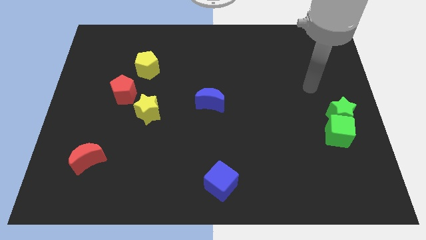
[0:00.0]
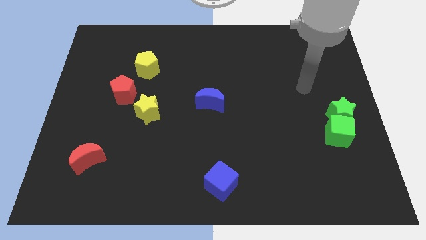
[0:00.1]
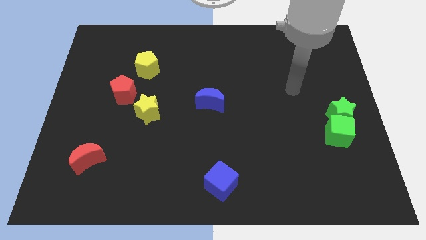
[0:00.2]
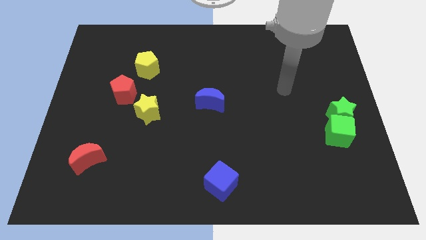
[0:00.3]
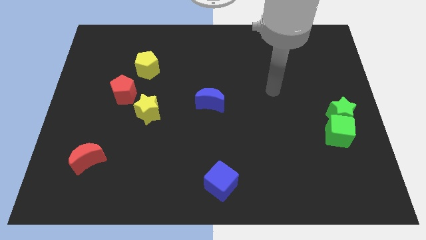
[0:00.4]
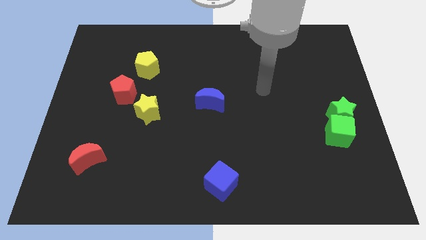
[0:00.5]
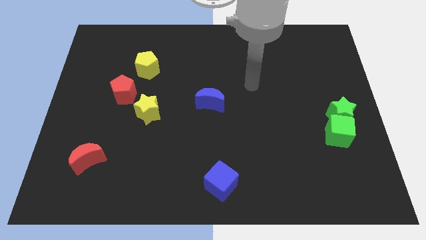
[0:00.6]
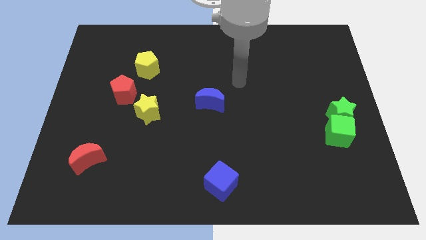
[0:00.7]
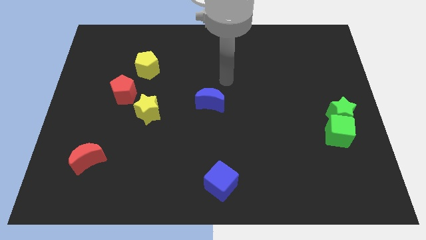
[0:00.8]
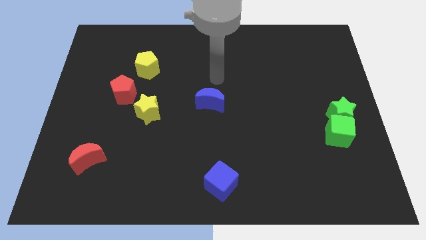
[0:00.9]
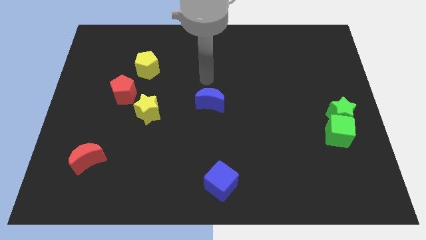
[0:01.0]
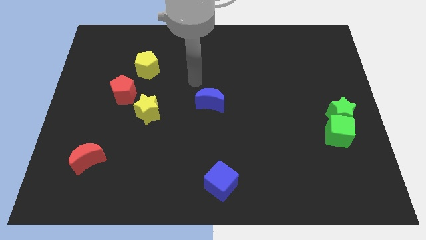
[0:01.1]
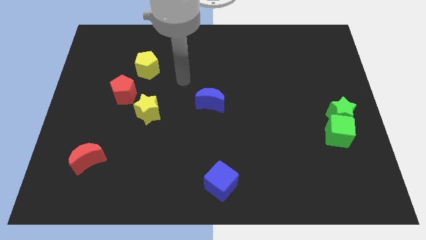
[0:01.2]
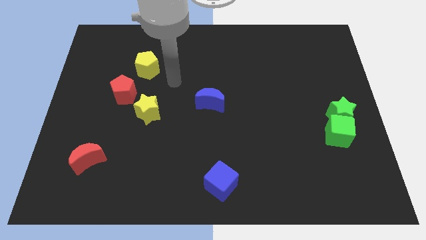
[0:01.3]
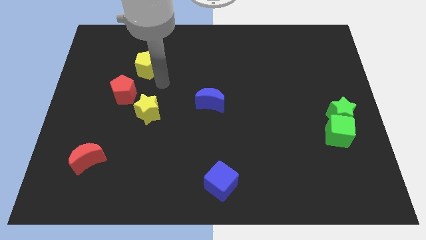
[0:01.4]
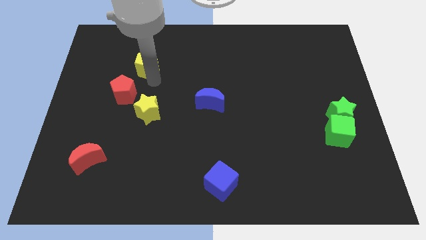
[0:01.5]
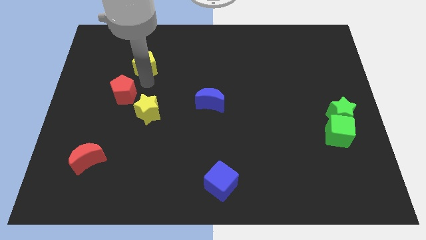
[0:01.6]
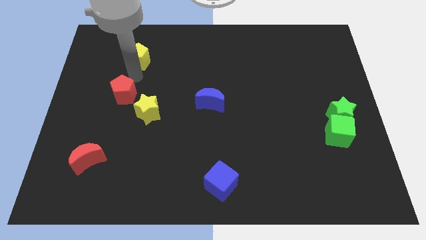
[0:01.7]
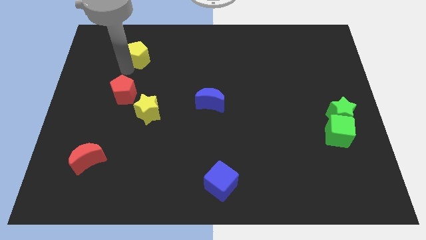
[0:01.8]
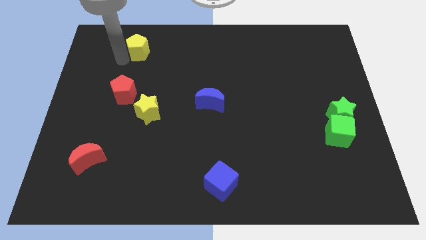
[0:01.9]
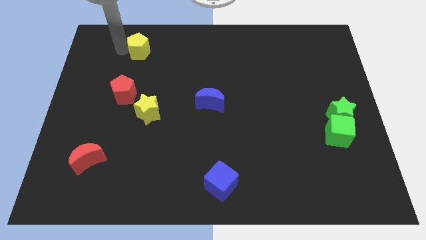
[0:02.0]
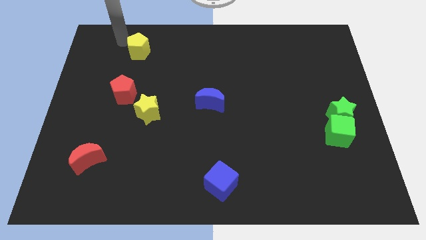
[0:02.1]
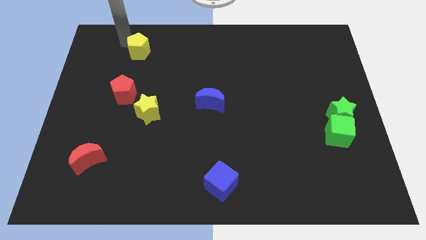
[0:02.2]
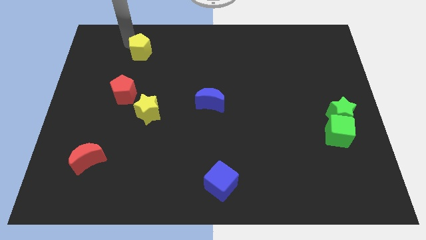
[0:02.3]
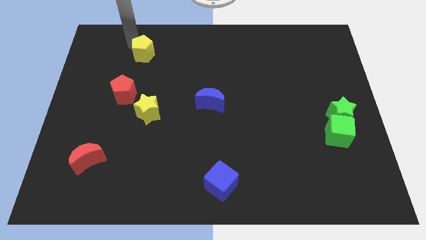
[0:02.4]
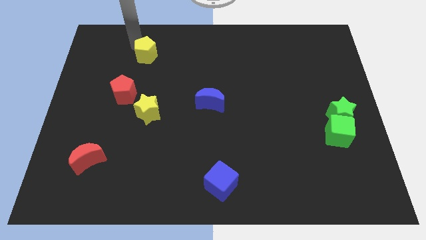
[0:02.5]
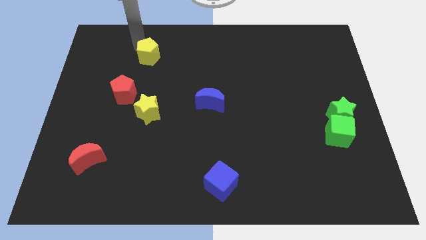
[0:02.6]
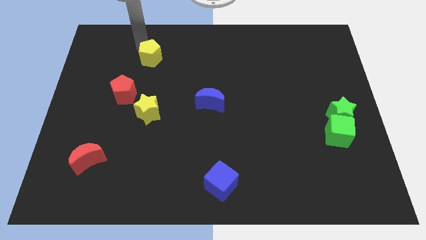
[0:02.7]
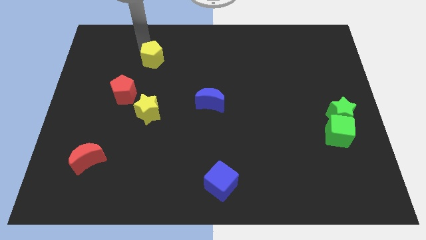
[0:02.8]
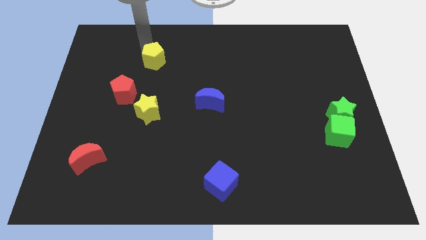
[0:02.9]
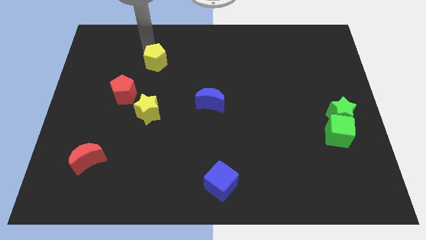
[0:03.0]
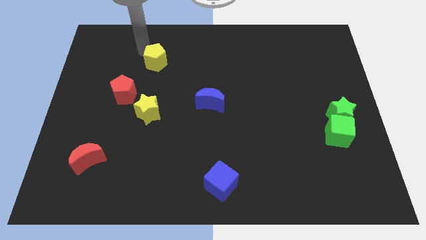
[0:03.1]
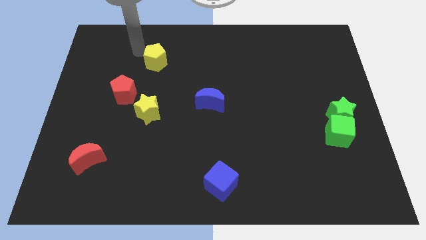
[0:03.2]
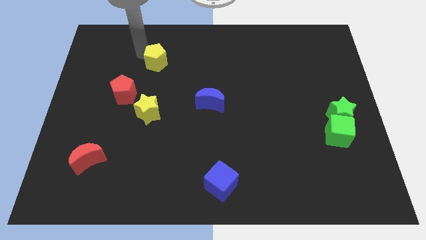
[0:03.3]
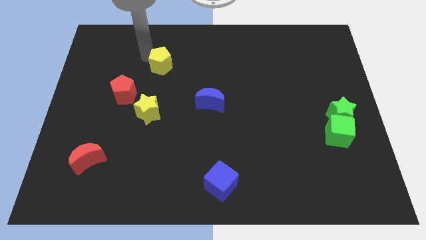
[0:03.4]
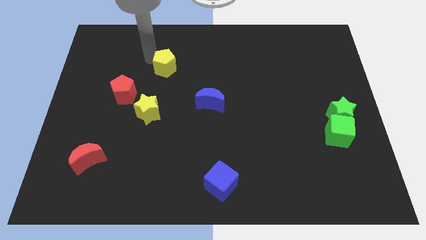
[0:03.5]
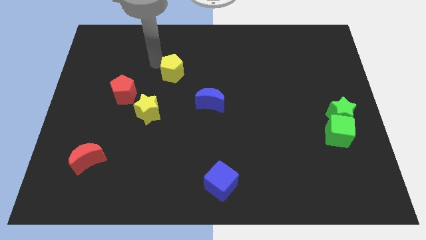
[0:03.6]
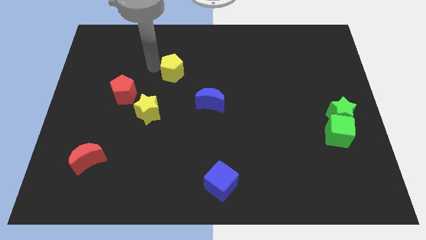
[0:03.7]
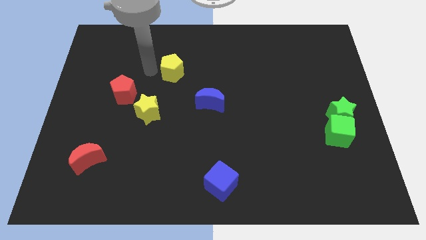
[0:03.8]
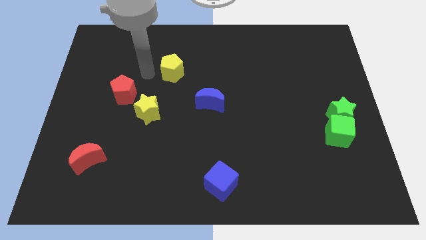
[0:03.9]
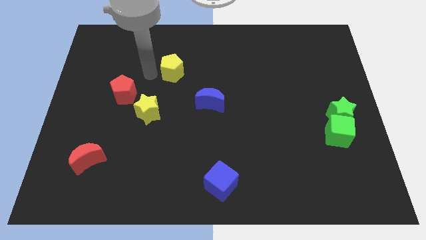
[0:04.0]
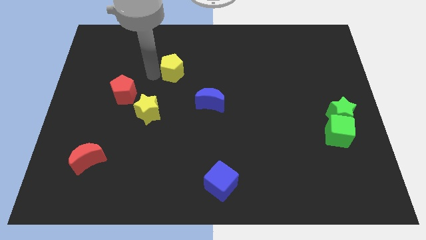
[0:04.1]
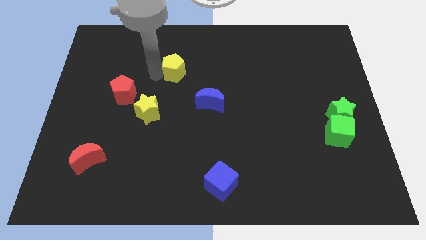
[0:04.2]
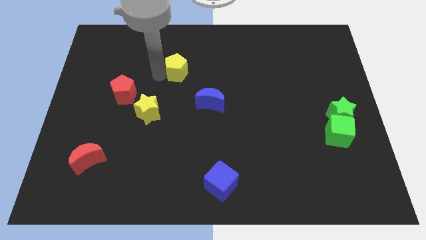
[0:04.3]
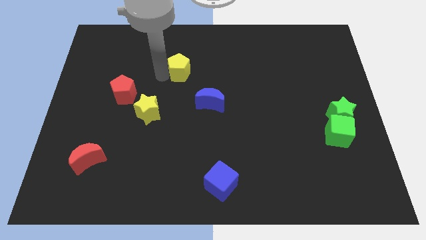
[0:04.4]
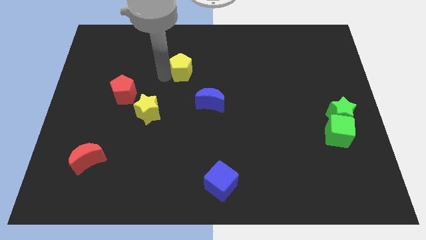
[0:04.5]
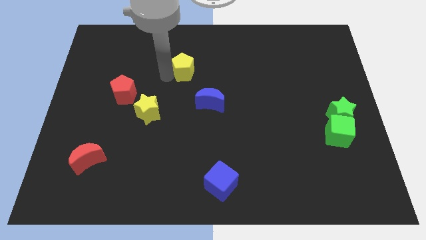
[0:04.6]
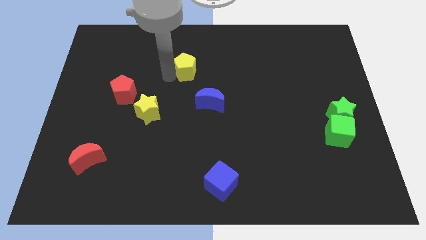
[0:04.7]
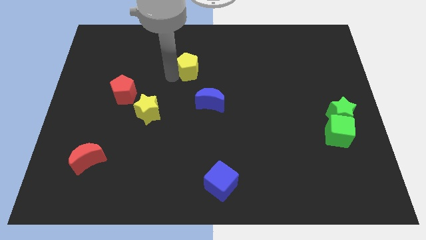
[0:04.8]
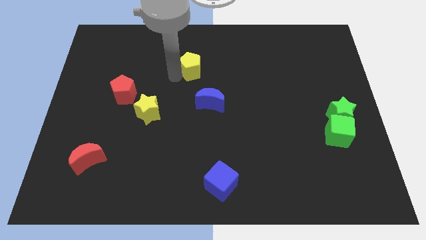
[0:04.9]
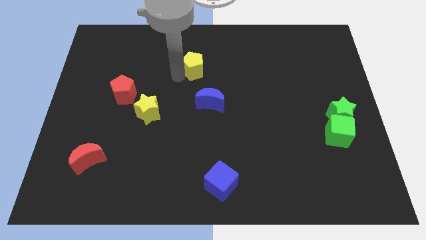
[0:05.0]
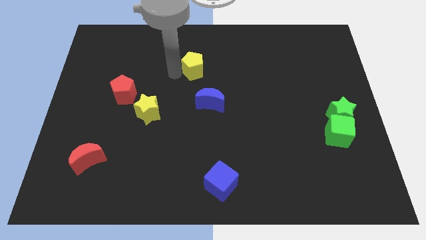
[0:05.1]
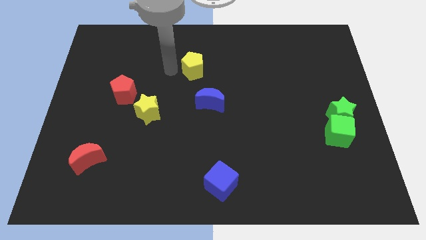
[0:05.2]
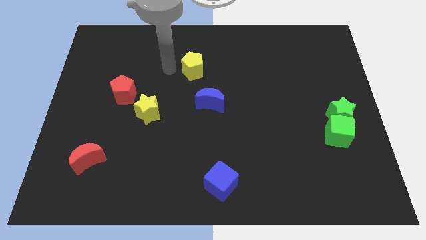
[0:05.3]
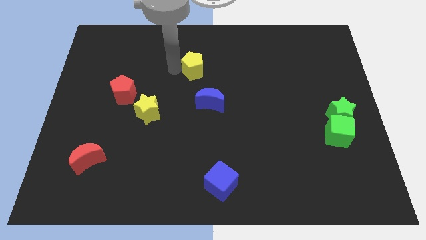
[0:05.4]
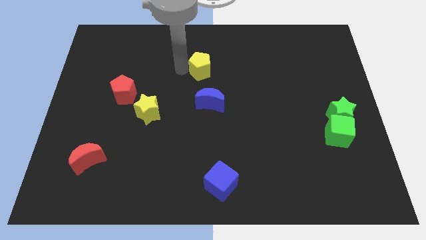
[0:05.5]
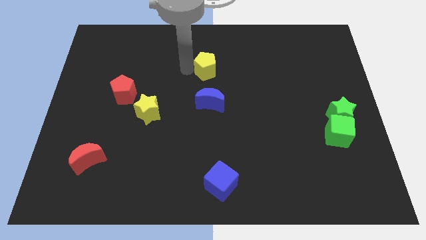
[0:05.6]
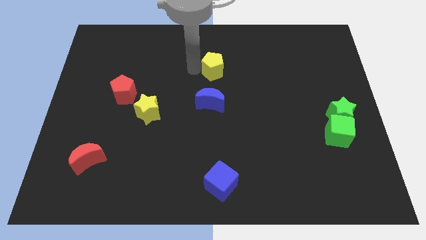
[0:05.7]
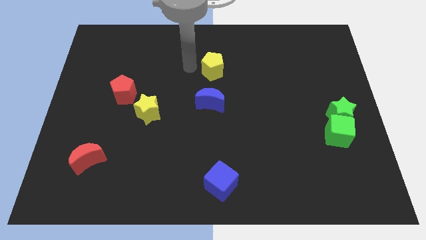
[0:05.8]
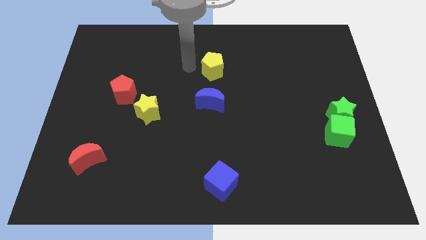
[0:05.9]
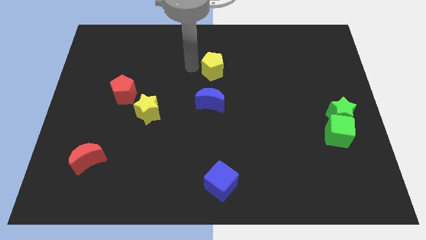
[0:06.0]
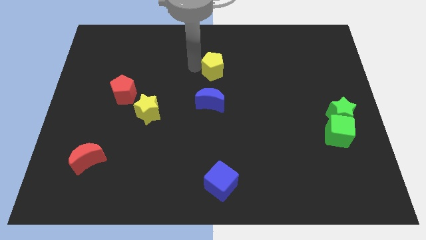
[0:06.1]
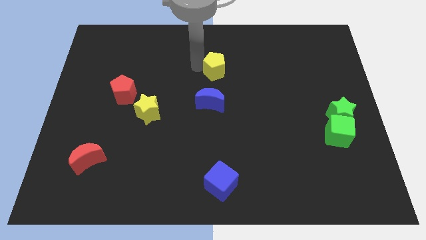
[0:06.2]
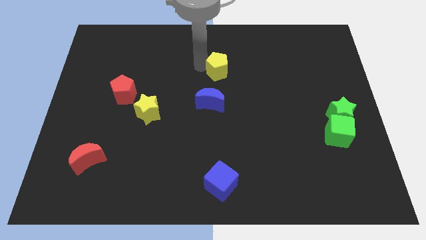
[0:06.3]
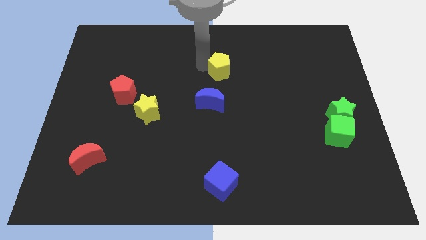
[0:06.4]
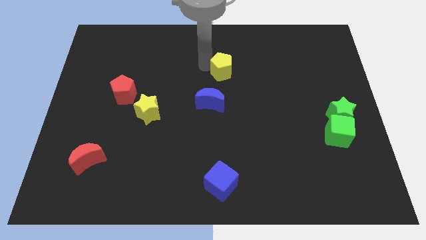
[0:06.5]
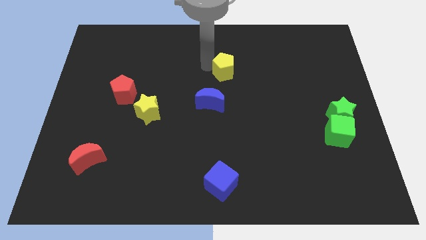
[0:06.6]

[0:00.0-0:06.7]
slide the yellow pentagon right

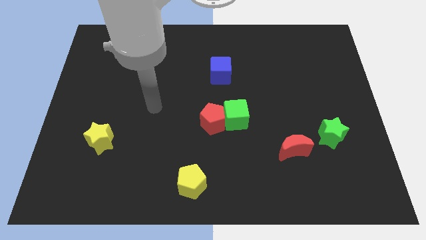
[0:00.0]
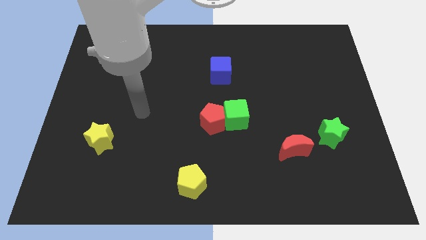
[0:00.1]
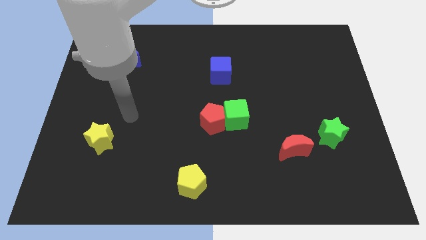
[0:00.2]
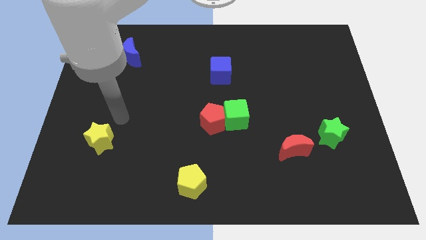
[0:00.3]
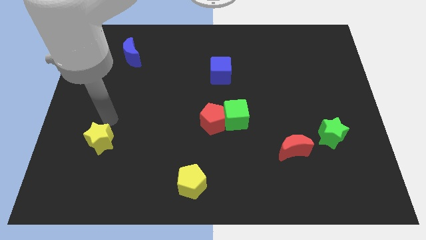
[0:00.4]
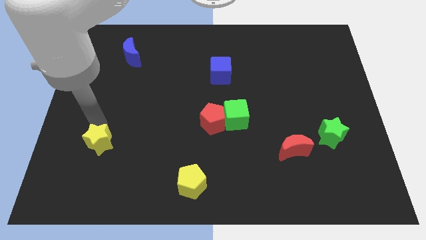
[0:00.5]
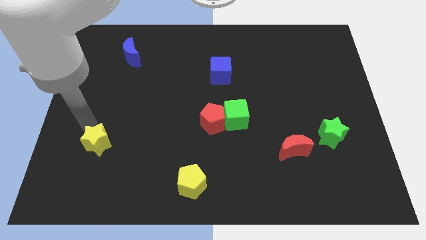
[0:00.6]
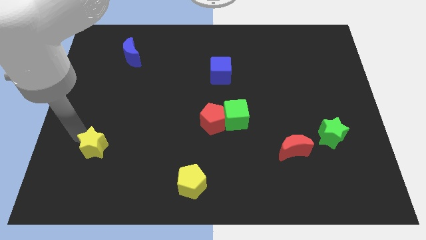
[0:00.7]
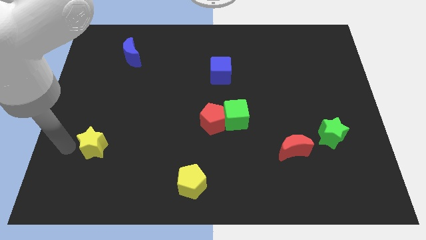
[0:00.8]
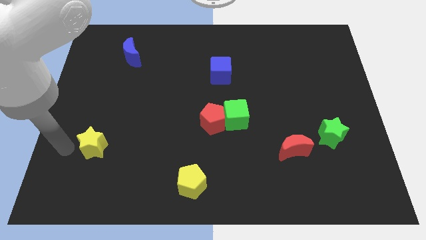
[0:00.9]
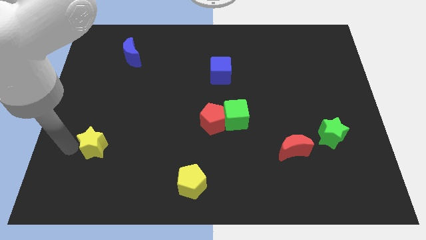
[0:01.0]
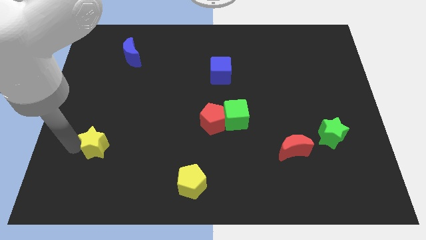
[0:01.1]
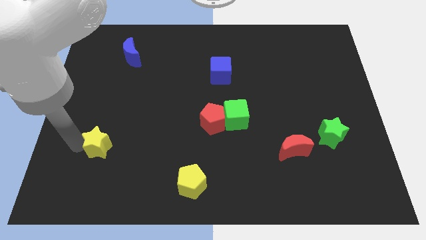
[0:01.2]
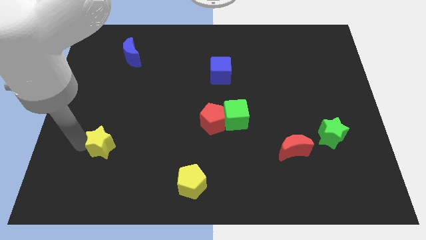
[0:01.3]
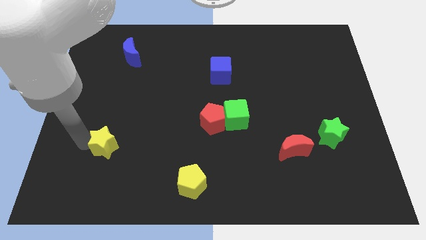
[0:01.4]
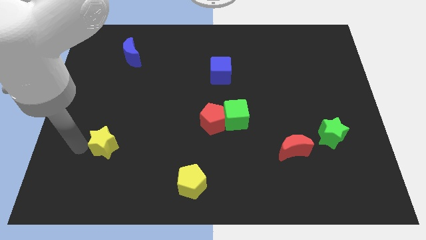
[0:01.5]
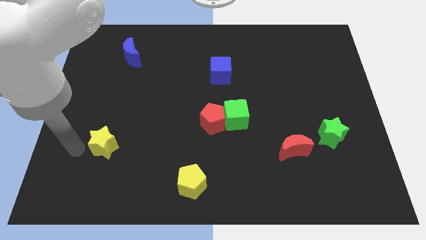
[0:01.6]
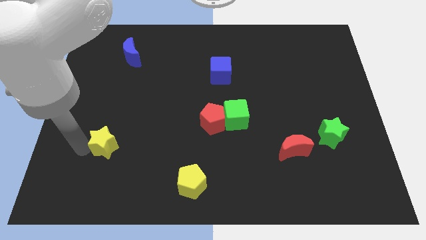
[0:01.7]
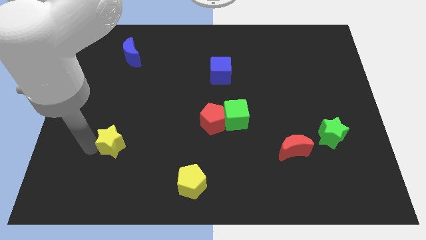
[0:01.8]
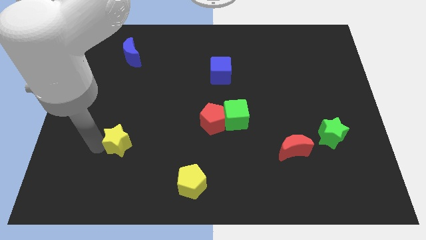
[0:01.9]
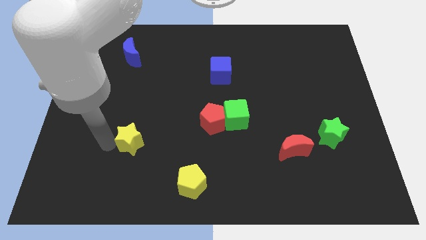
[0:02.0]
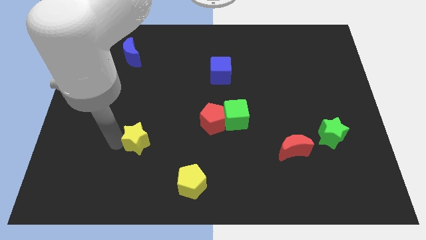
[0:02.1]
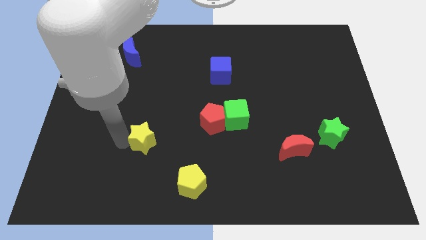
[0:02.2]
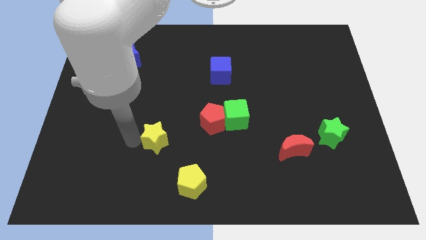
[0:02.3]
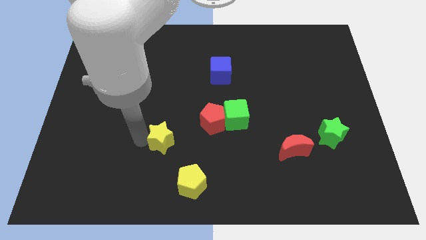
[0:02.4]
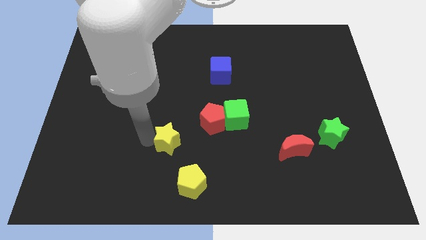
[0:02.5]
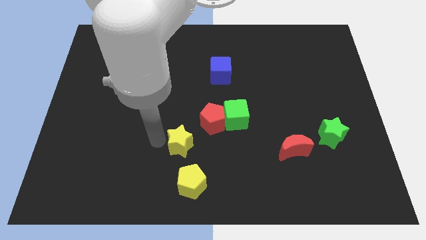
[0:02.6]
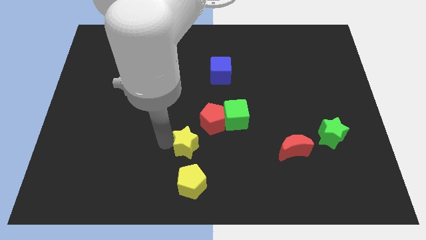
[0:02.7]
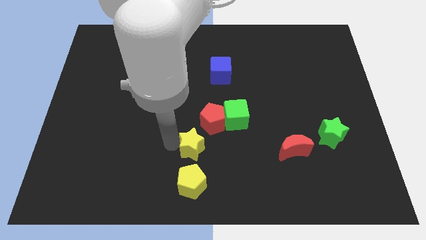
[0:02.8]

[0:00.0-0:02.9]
move the yellow star to the right
